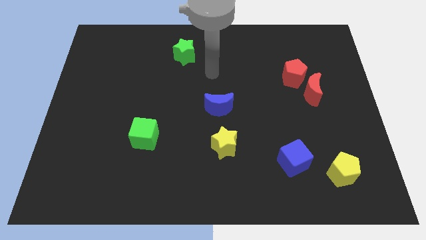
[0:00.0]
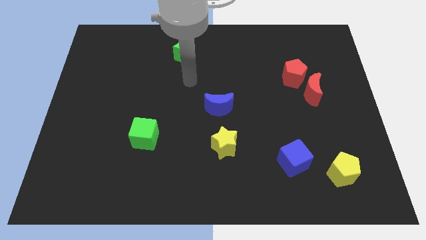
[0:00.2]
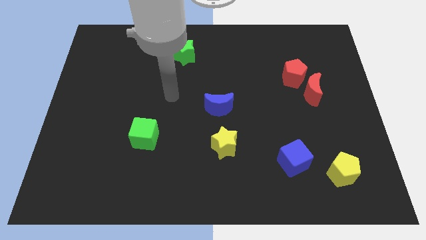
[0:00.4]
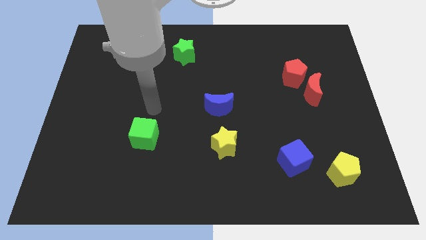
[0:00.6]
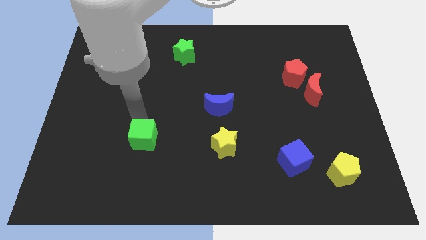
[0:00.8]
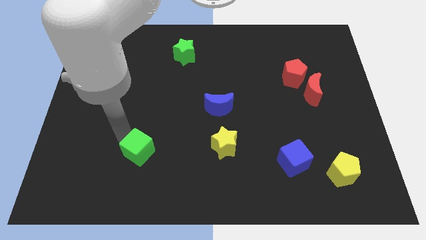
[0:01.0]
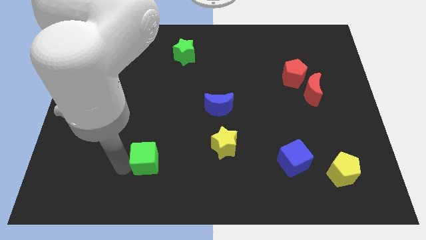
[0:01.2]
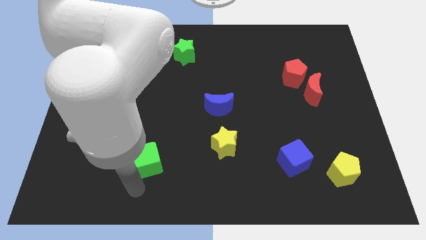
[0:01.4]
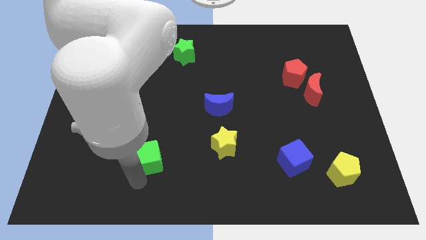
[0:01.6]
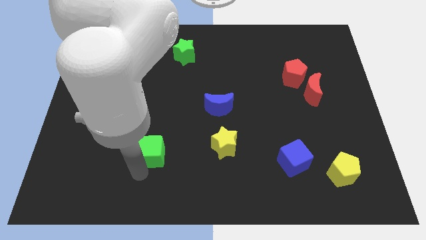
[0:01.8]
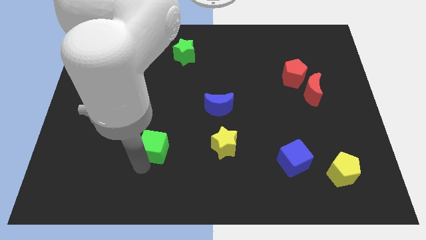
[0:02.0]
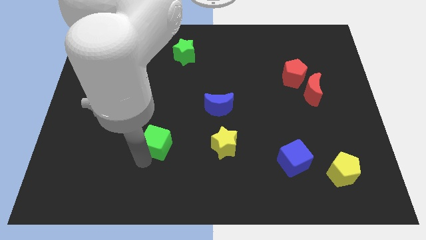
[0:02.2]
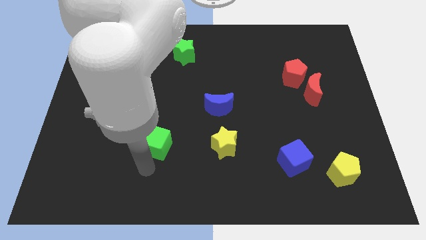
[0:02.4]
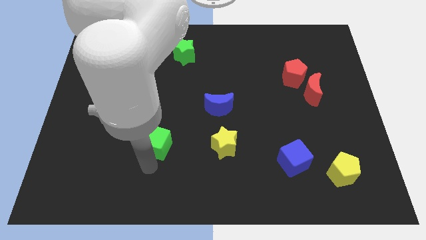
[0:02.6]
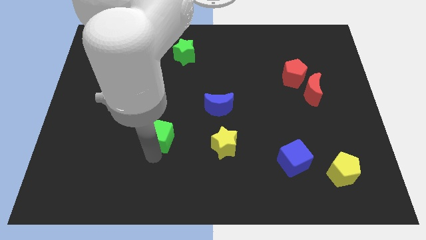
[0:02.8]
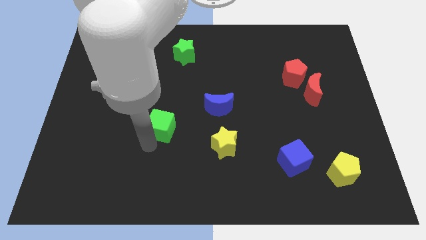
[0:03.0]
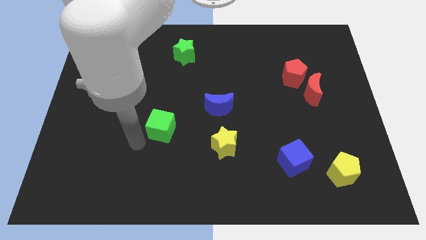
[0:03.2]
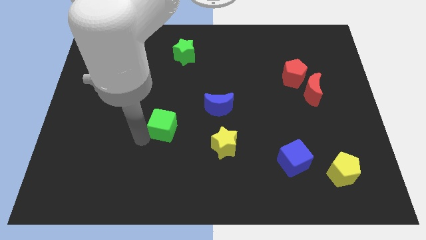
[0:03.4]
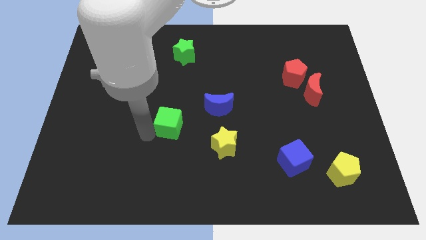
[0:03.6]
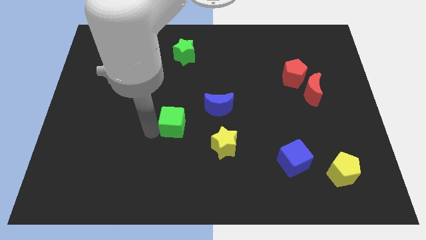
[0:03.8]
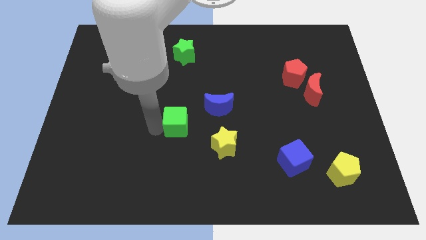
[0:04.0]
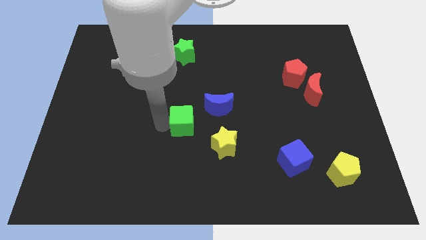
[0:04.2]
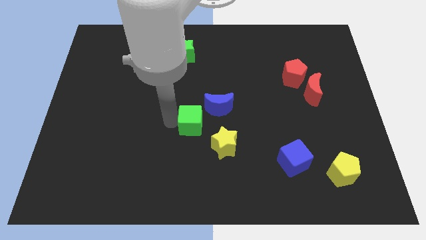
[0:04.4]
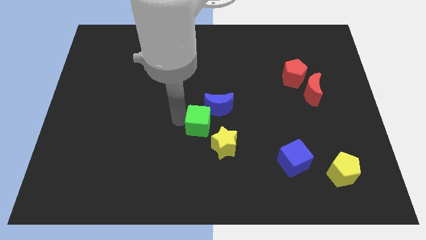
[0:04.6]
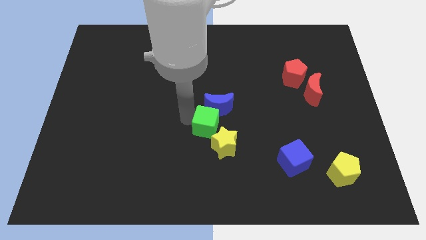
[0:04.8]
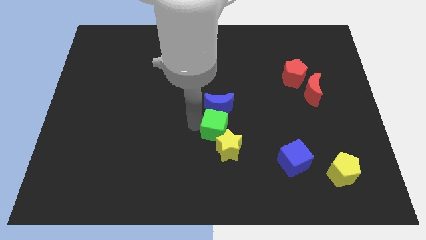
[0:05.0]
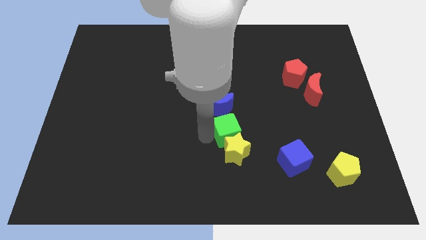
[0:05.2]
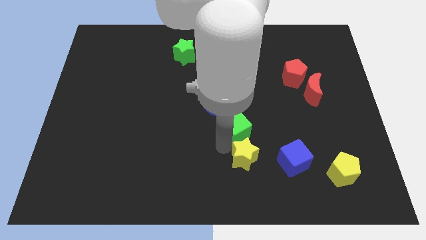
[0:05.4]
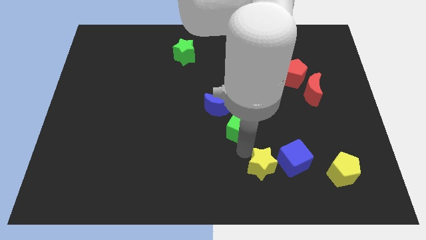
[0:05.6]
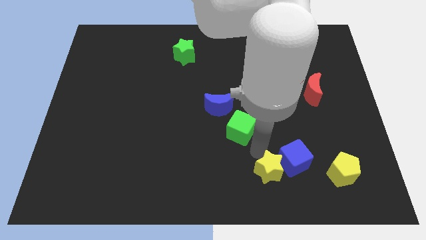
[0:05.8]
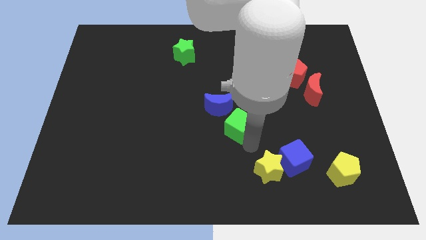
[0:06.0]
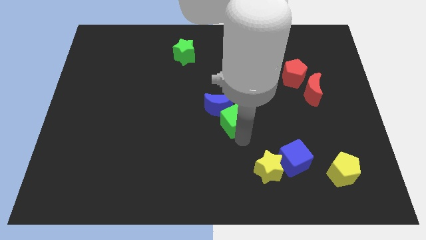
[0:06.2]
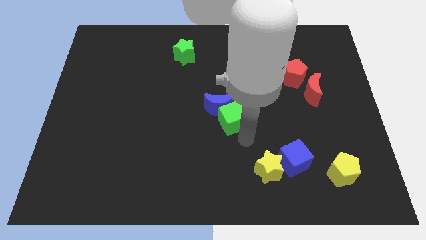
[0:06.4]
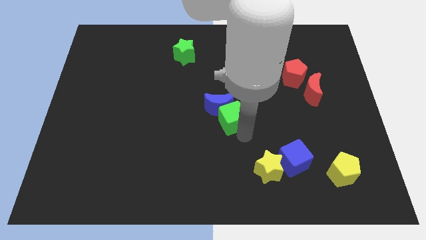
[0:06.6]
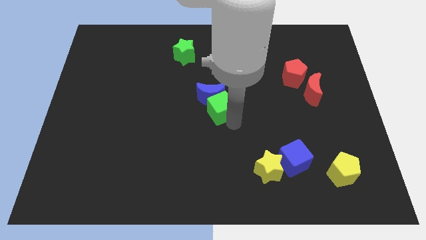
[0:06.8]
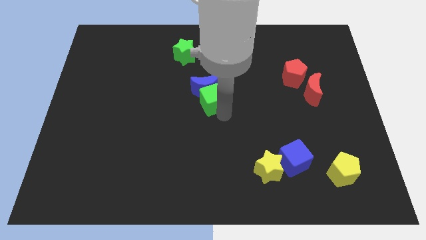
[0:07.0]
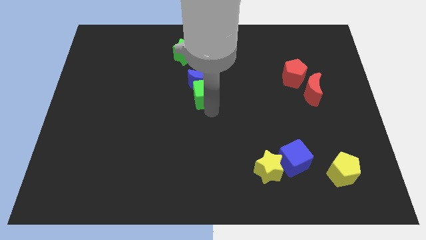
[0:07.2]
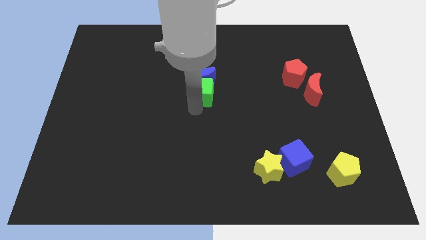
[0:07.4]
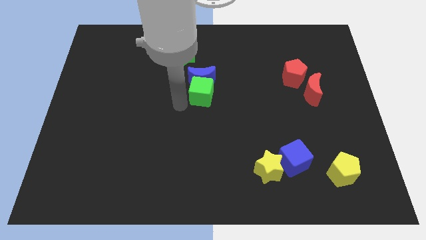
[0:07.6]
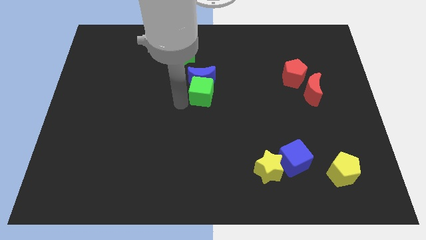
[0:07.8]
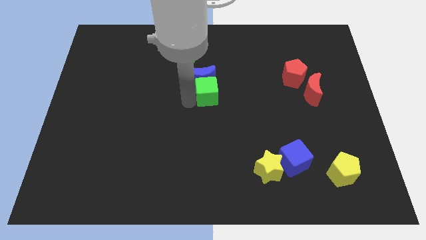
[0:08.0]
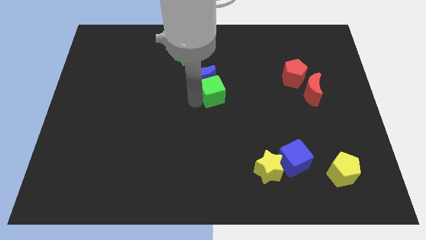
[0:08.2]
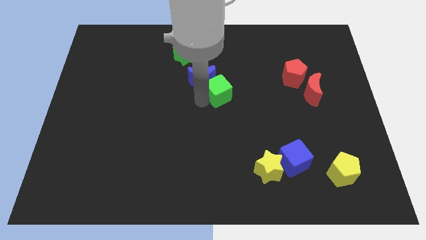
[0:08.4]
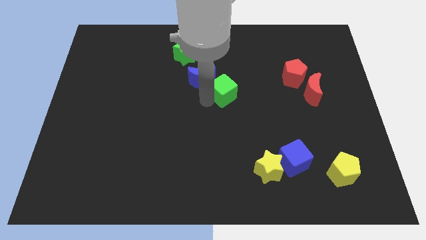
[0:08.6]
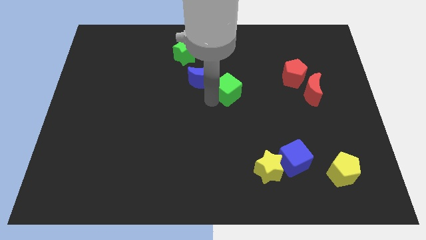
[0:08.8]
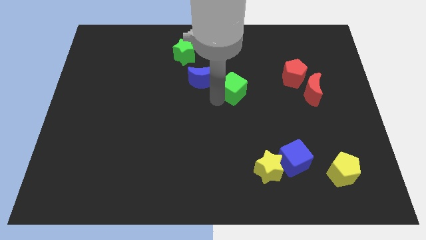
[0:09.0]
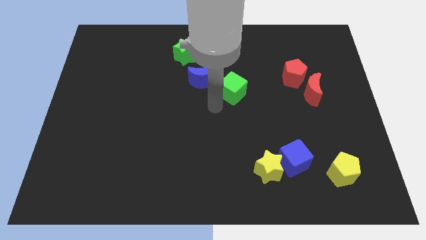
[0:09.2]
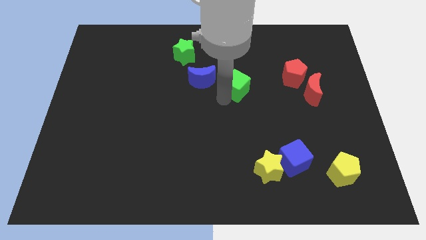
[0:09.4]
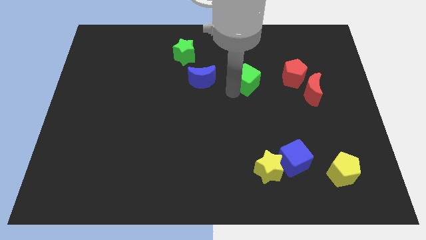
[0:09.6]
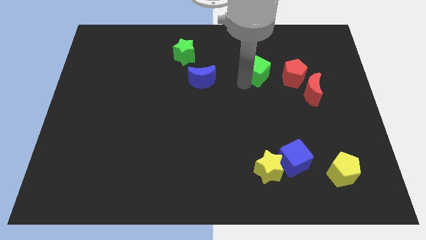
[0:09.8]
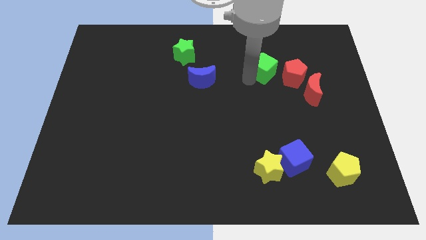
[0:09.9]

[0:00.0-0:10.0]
put the green cube diagonally up and to the left of the red pentagon

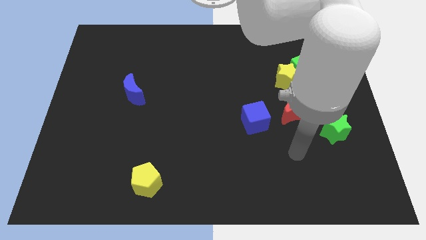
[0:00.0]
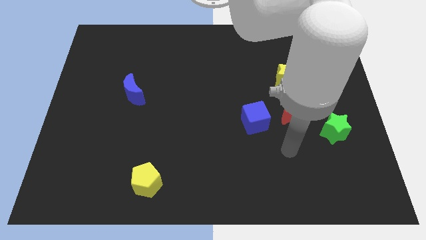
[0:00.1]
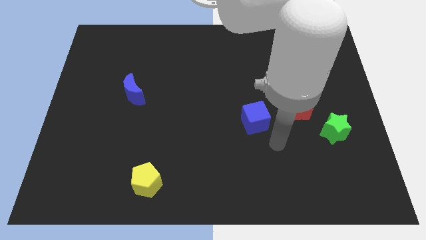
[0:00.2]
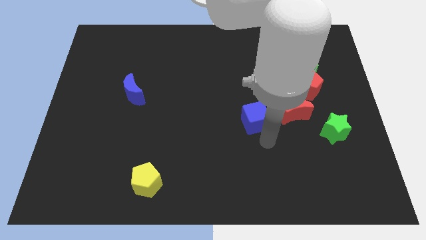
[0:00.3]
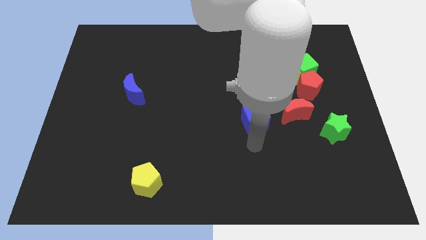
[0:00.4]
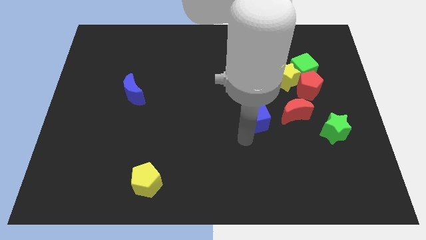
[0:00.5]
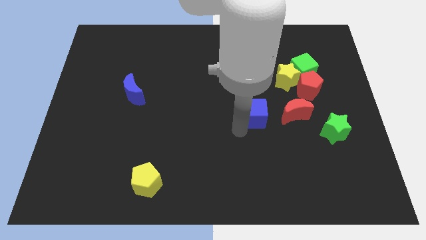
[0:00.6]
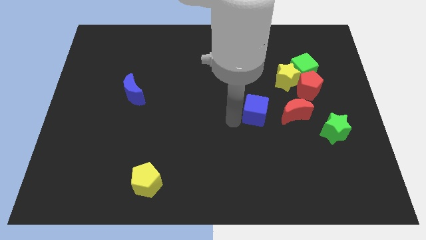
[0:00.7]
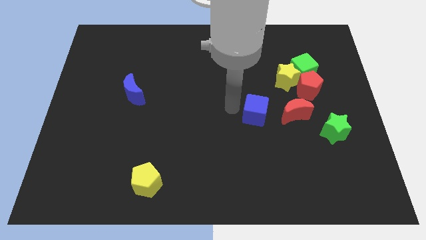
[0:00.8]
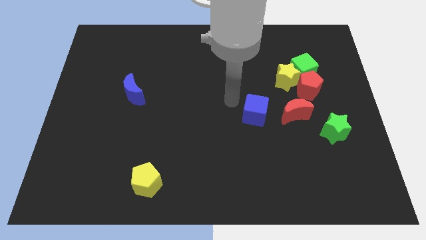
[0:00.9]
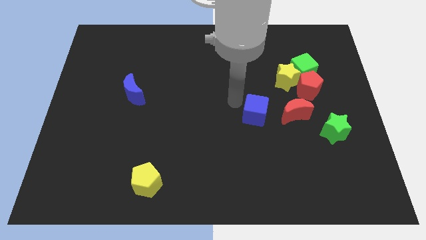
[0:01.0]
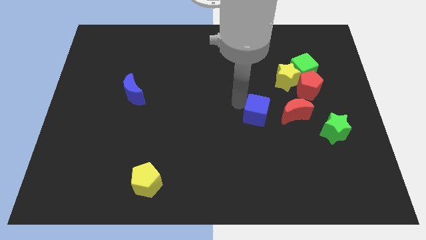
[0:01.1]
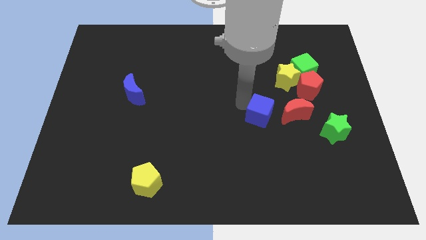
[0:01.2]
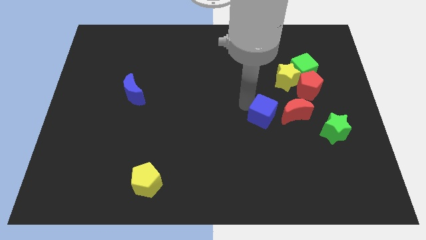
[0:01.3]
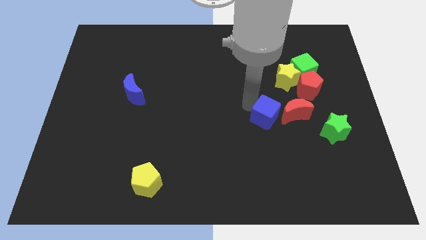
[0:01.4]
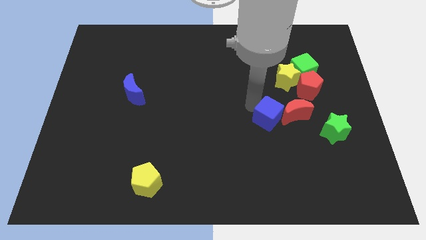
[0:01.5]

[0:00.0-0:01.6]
put the blue cube to the left side of the green star

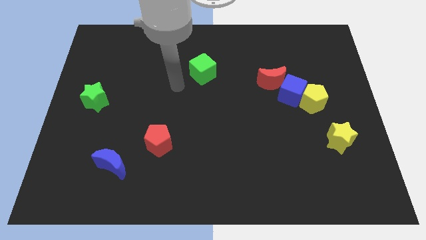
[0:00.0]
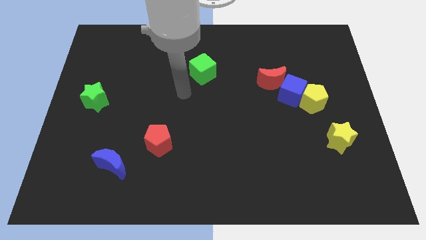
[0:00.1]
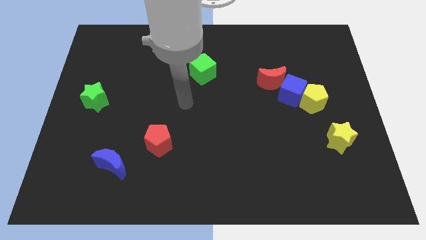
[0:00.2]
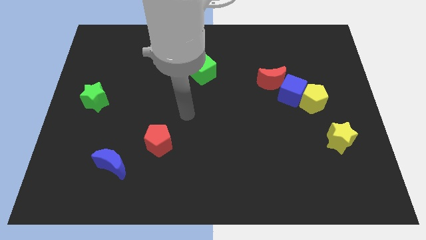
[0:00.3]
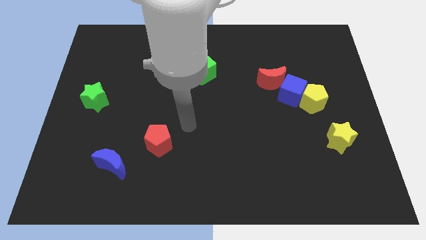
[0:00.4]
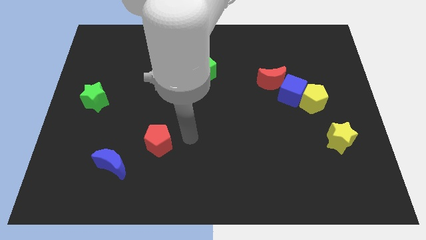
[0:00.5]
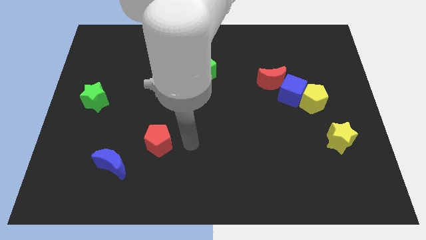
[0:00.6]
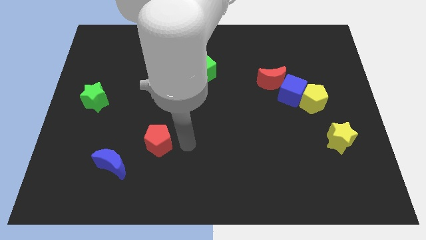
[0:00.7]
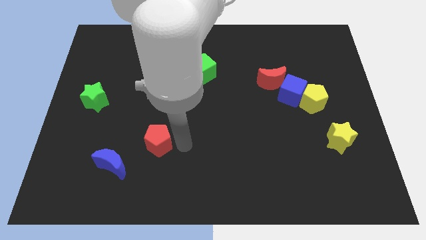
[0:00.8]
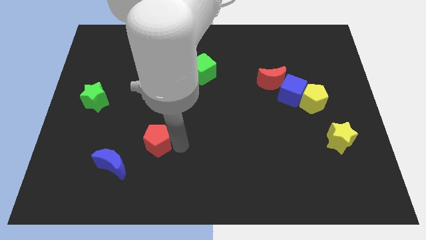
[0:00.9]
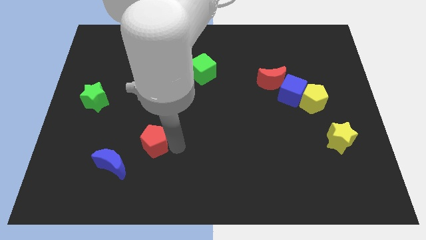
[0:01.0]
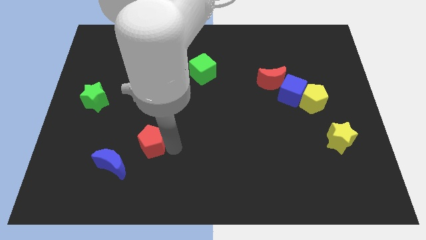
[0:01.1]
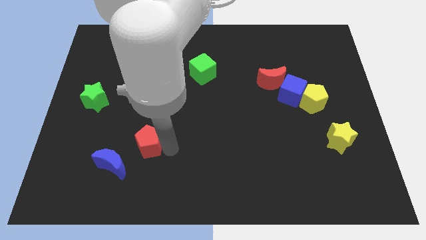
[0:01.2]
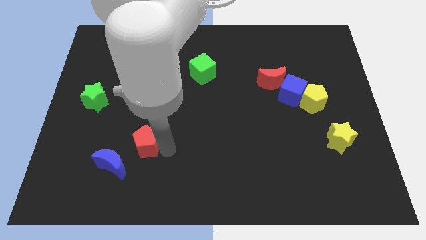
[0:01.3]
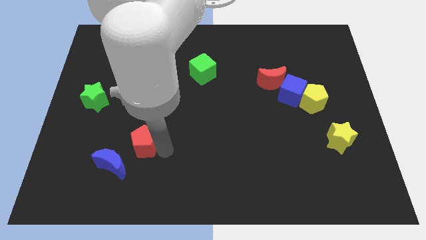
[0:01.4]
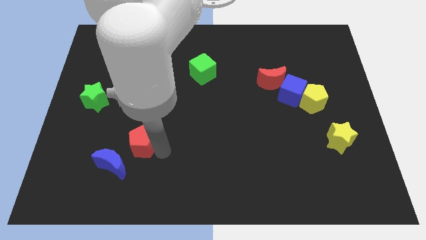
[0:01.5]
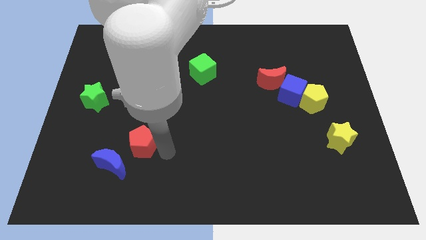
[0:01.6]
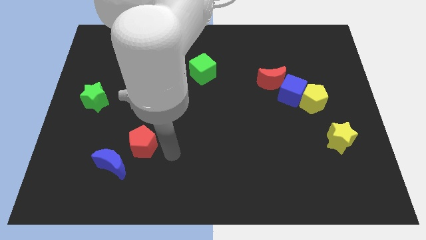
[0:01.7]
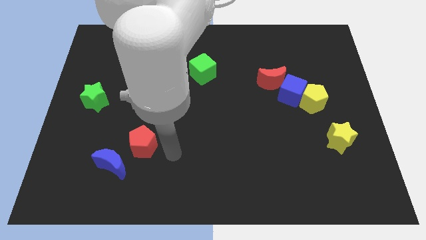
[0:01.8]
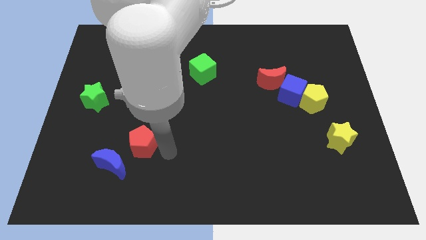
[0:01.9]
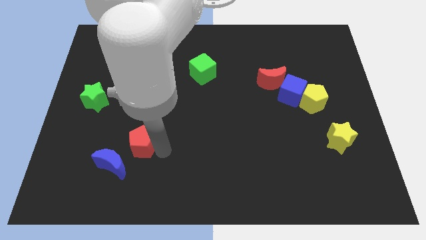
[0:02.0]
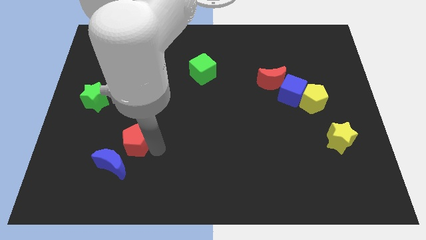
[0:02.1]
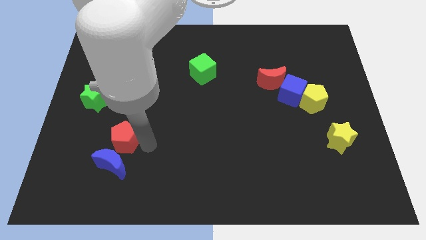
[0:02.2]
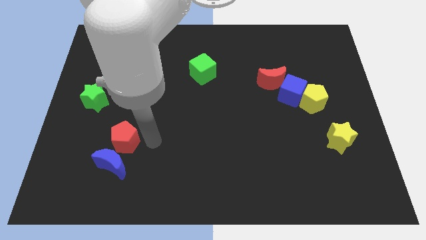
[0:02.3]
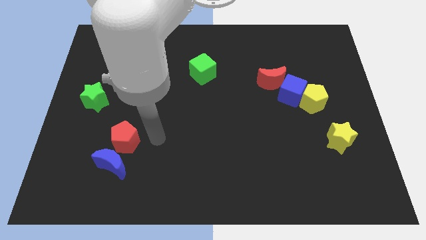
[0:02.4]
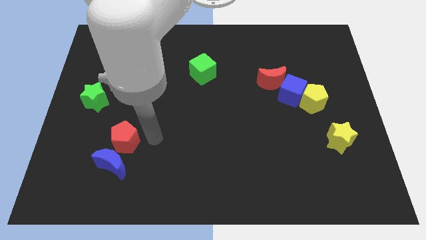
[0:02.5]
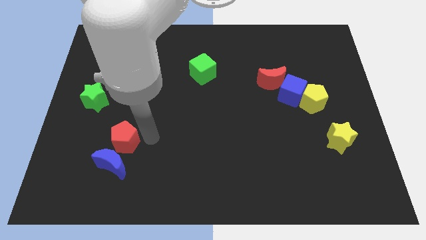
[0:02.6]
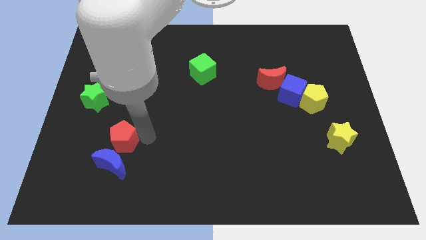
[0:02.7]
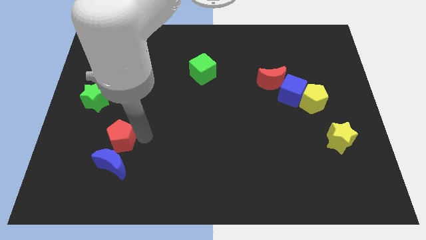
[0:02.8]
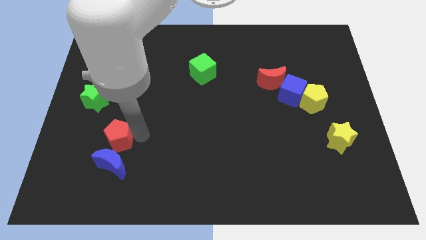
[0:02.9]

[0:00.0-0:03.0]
slide the red pentagon to the top left of the blue moon
